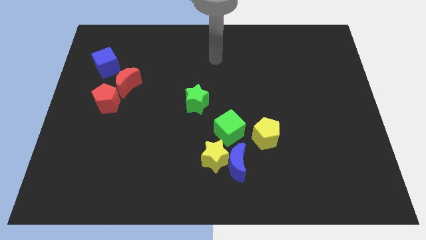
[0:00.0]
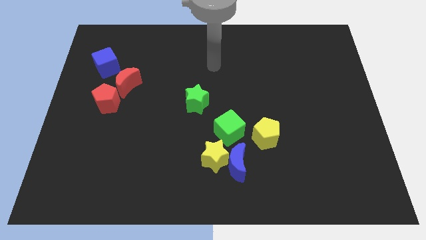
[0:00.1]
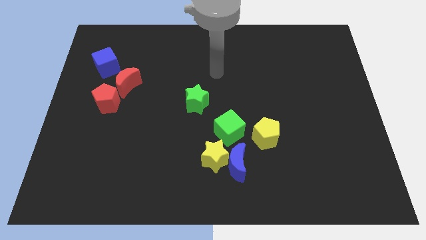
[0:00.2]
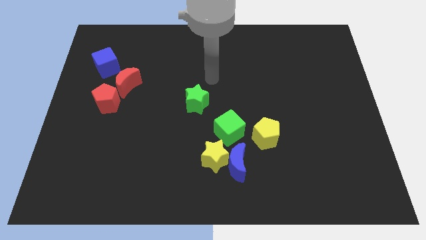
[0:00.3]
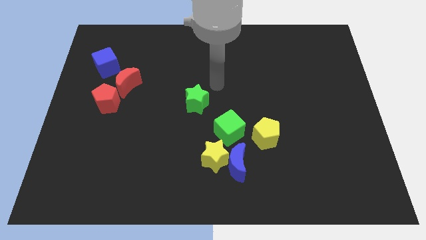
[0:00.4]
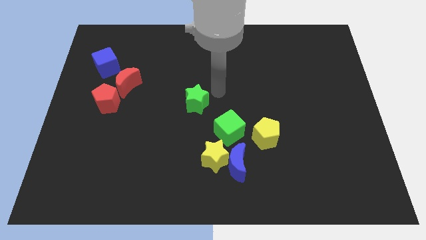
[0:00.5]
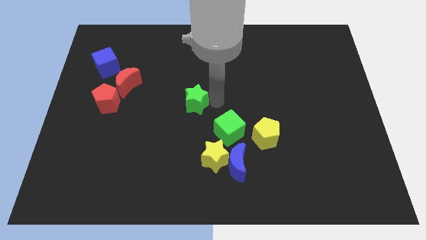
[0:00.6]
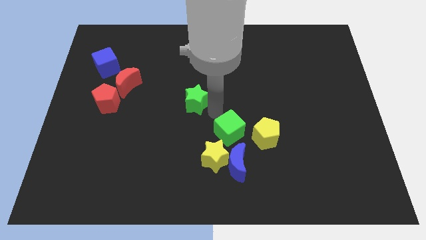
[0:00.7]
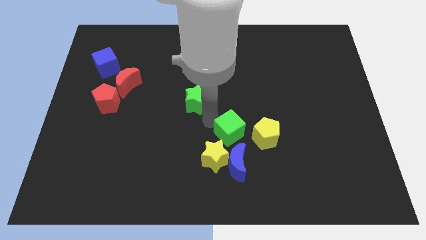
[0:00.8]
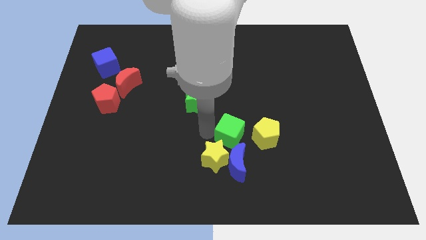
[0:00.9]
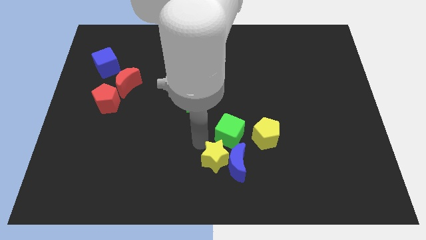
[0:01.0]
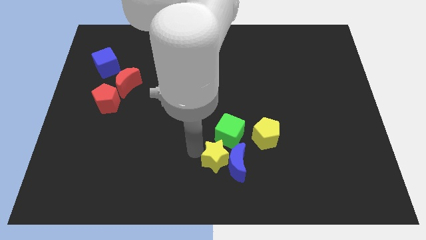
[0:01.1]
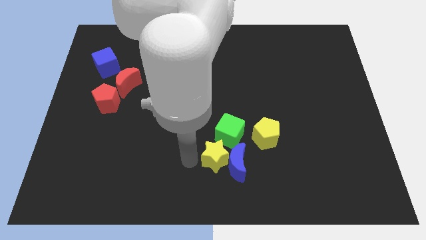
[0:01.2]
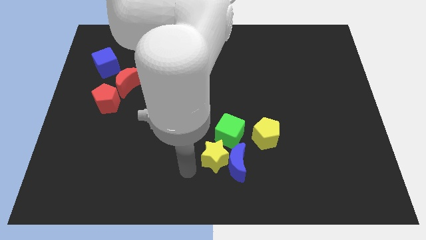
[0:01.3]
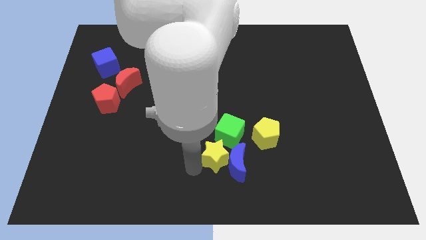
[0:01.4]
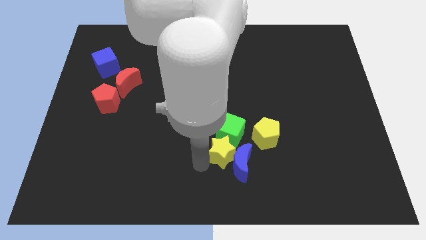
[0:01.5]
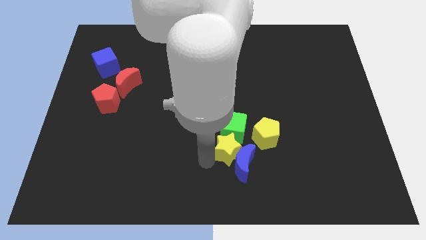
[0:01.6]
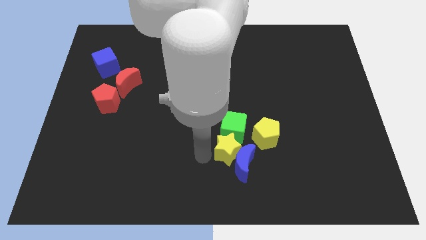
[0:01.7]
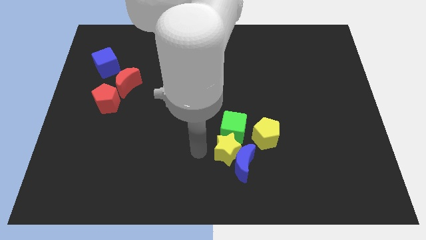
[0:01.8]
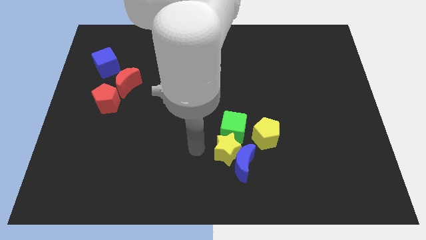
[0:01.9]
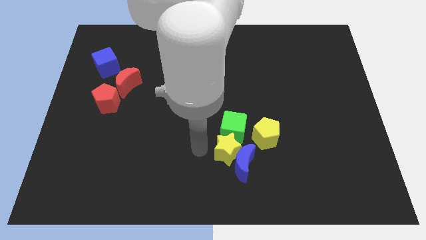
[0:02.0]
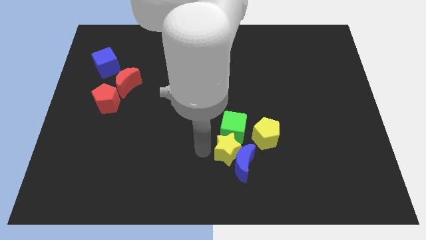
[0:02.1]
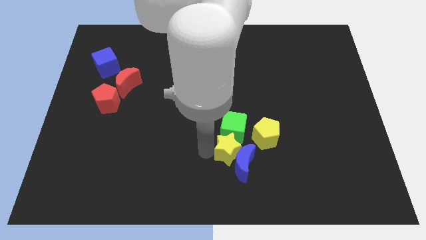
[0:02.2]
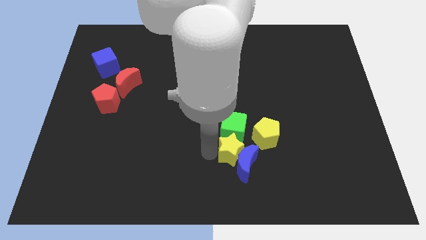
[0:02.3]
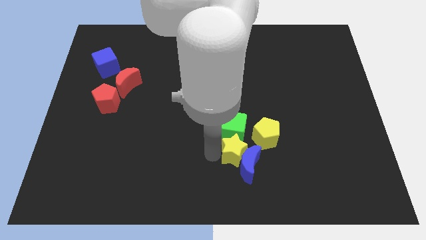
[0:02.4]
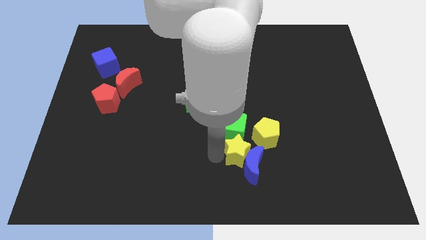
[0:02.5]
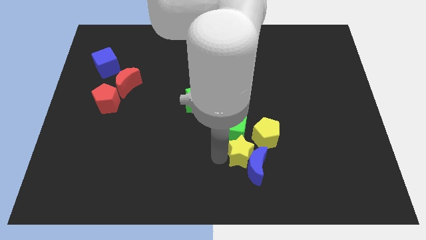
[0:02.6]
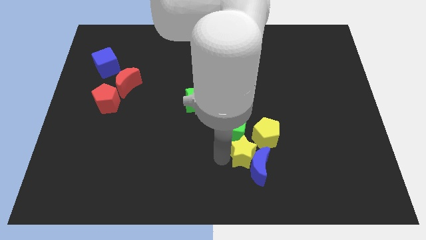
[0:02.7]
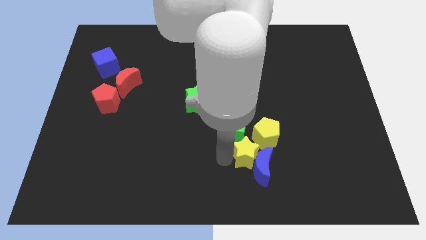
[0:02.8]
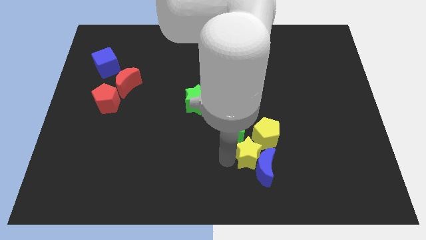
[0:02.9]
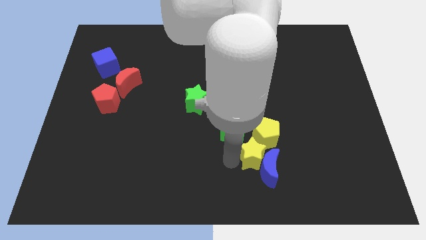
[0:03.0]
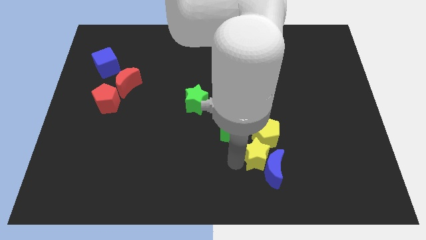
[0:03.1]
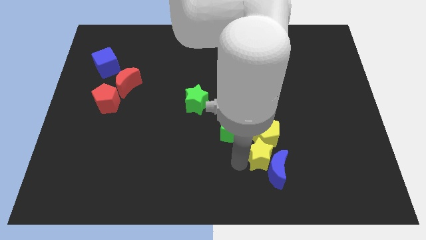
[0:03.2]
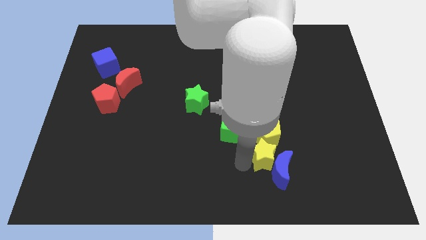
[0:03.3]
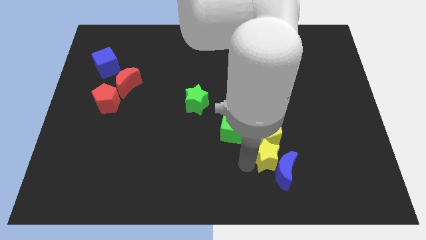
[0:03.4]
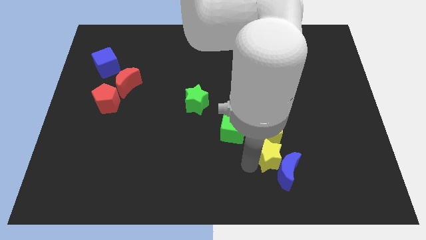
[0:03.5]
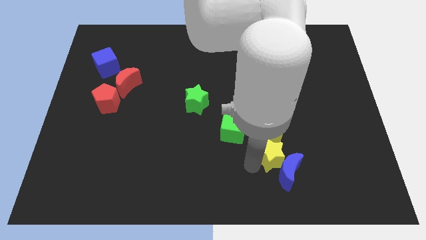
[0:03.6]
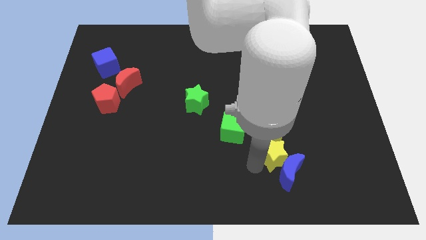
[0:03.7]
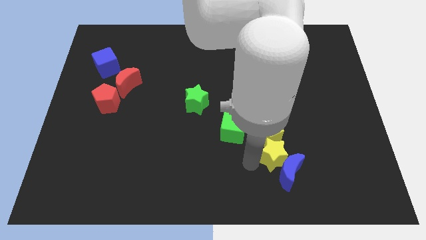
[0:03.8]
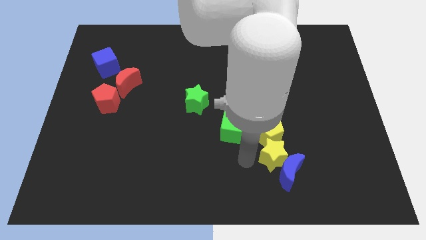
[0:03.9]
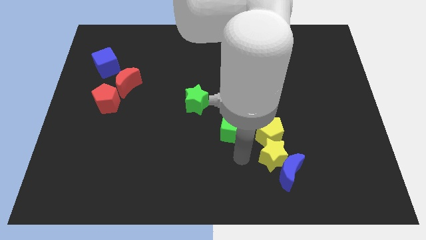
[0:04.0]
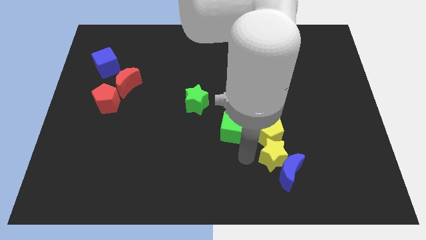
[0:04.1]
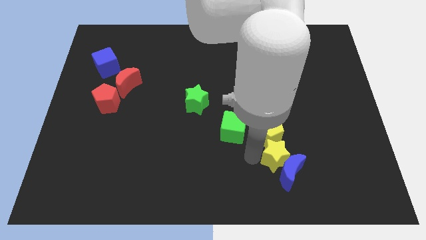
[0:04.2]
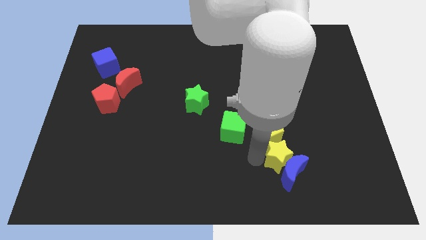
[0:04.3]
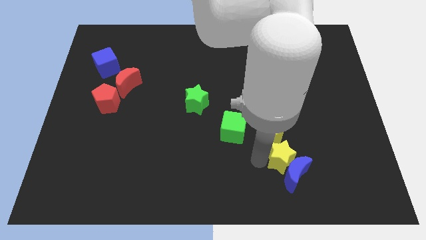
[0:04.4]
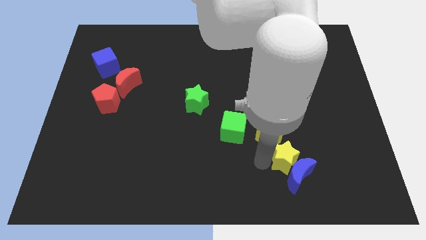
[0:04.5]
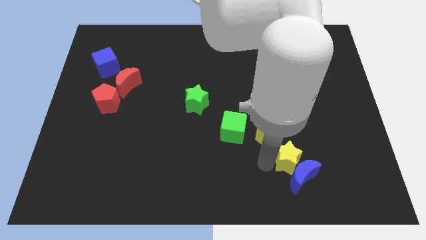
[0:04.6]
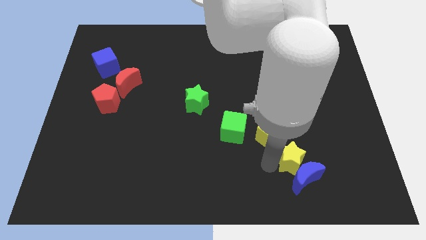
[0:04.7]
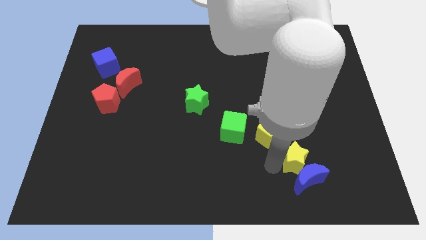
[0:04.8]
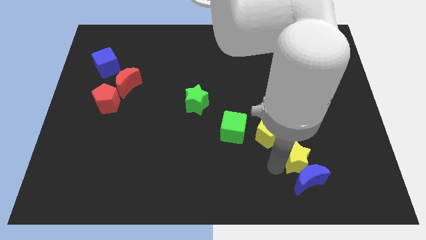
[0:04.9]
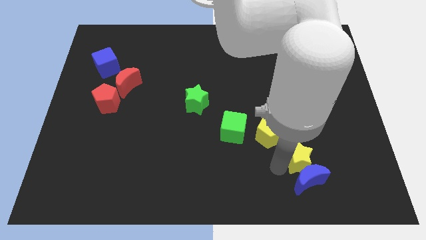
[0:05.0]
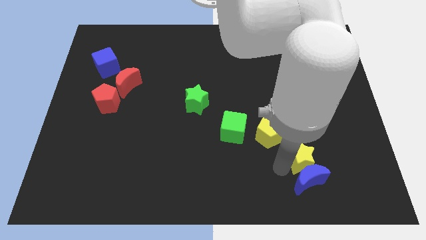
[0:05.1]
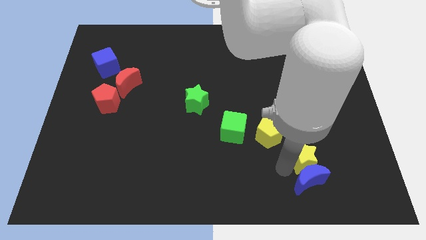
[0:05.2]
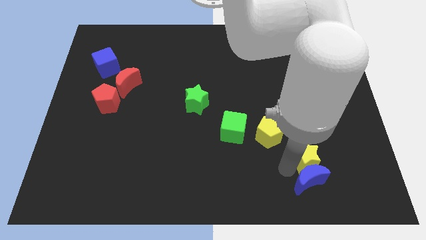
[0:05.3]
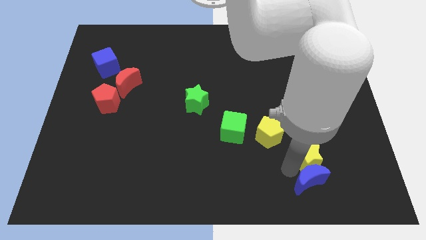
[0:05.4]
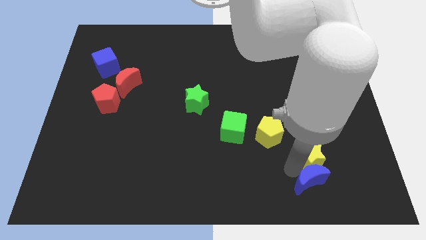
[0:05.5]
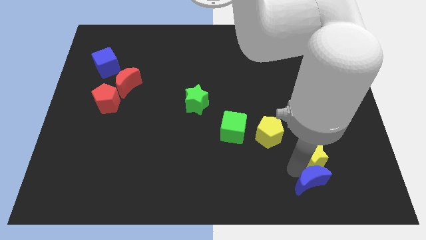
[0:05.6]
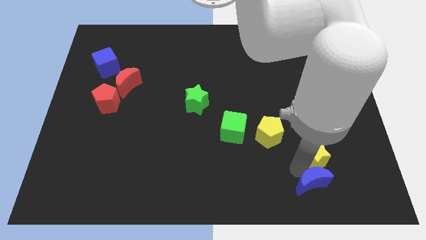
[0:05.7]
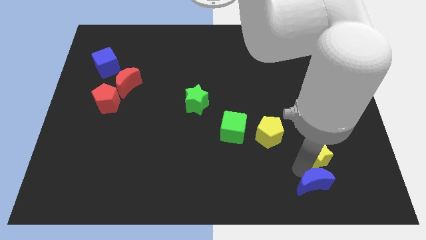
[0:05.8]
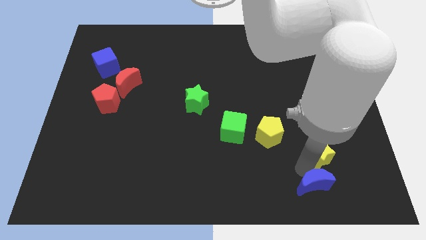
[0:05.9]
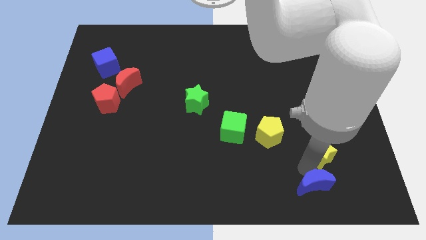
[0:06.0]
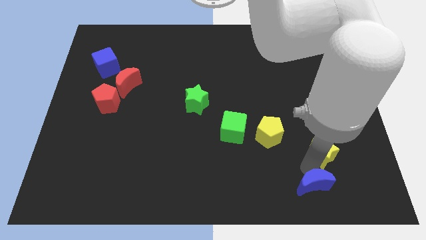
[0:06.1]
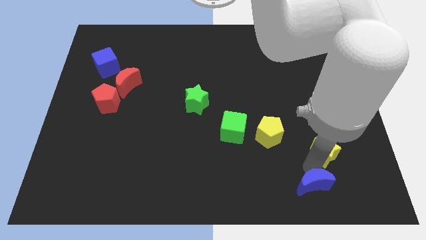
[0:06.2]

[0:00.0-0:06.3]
put the yellow star to the right side of the yellow pentagon
